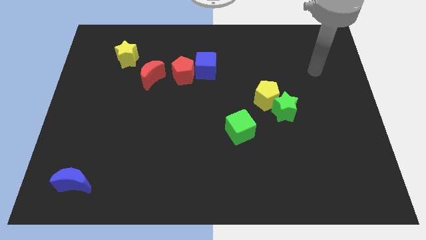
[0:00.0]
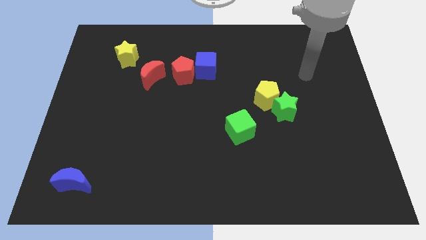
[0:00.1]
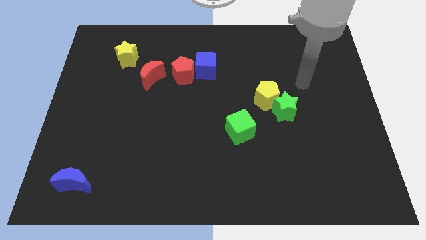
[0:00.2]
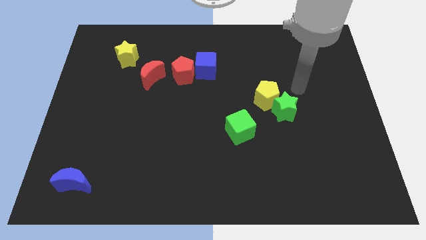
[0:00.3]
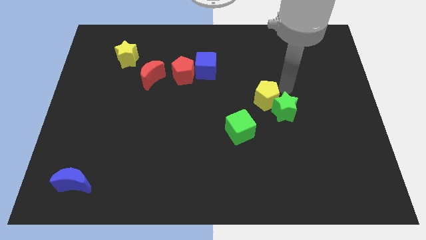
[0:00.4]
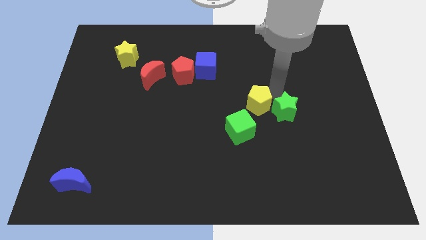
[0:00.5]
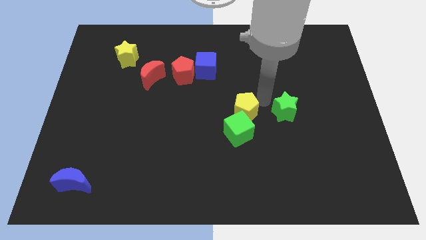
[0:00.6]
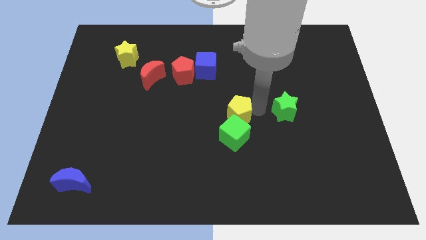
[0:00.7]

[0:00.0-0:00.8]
pull the green star apart from the yellow pentagon

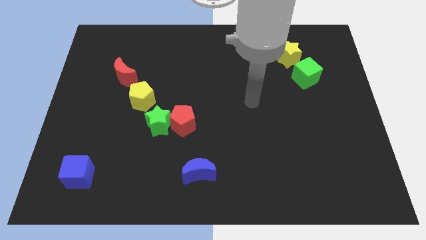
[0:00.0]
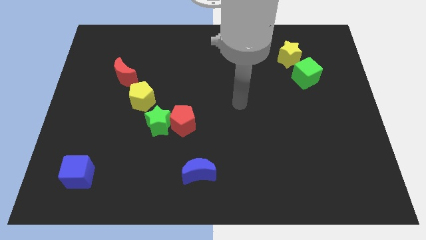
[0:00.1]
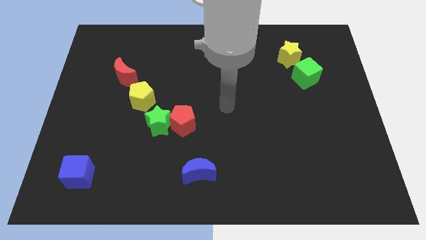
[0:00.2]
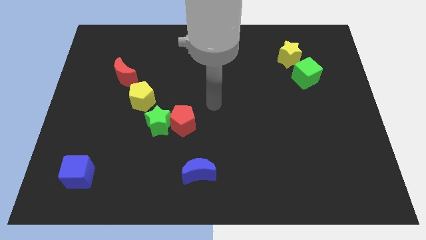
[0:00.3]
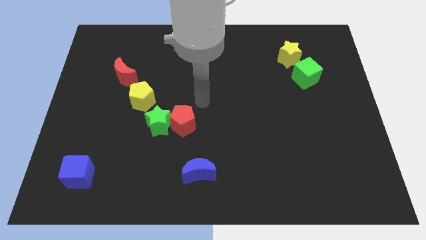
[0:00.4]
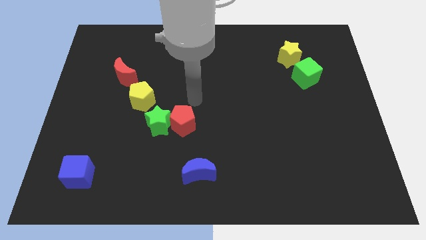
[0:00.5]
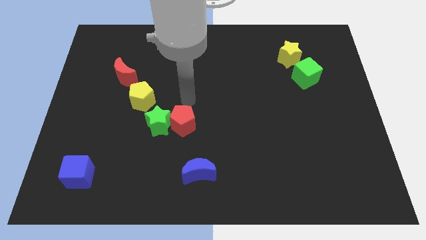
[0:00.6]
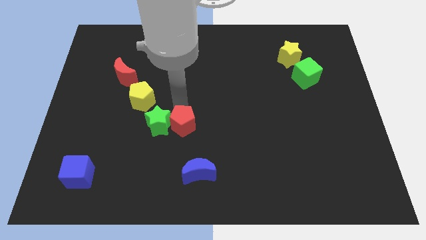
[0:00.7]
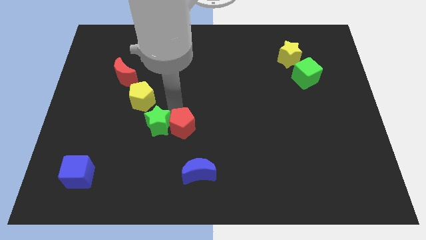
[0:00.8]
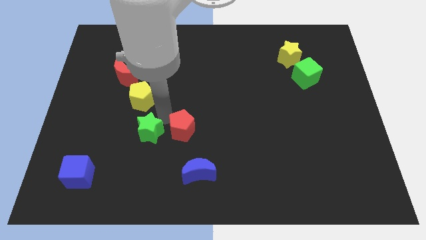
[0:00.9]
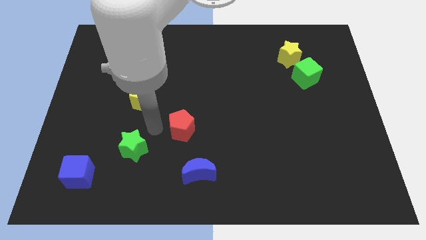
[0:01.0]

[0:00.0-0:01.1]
separate the red pentagon from the green star

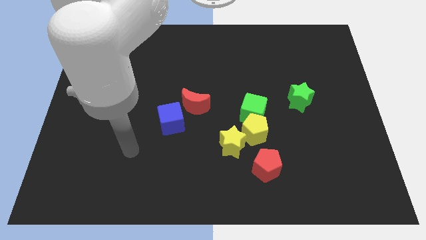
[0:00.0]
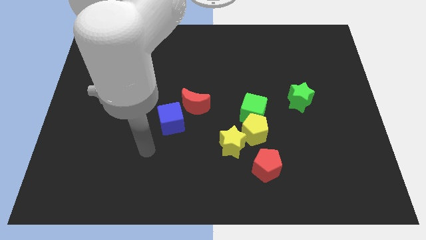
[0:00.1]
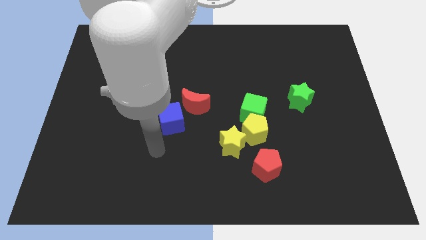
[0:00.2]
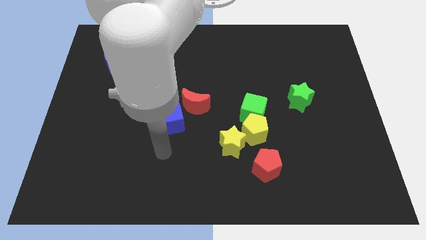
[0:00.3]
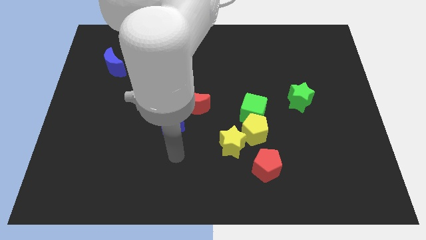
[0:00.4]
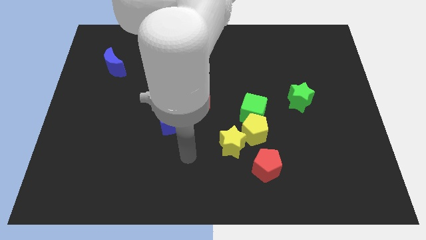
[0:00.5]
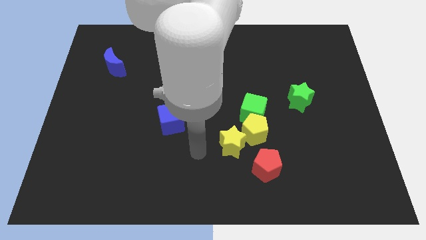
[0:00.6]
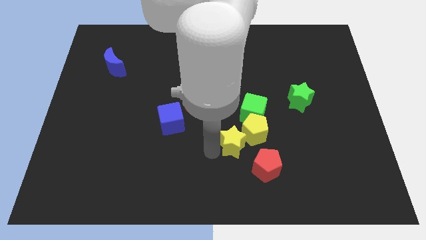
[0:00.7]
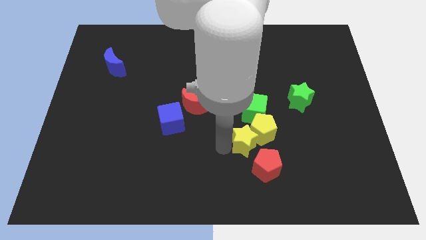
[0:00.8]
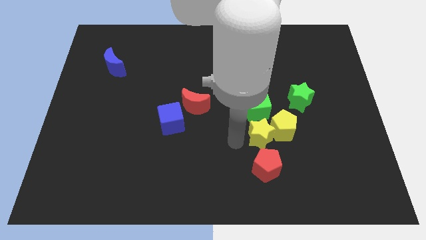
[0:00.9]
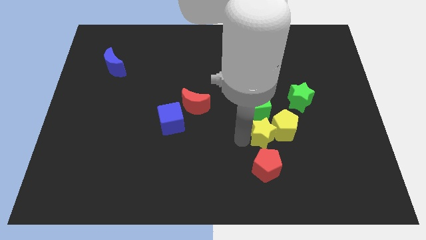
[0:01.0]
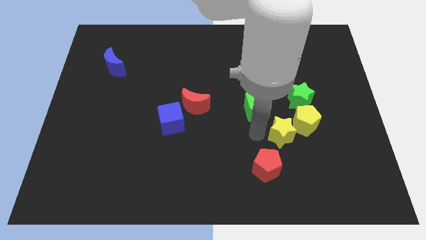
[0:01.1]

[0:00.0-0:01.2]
move the green cube away from the yellow pentagon

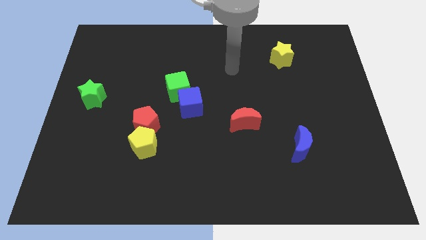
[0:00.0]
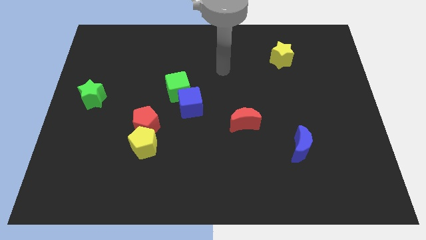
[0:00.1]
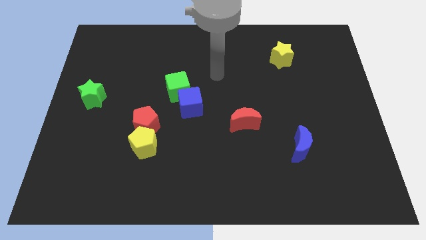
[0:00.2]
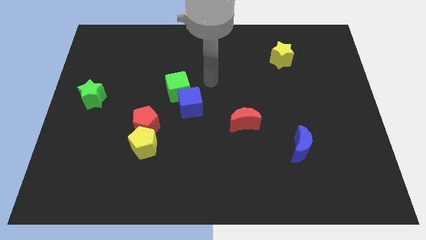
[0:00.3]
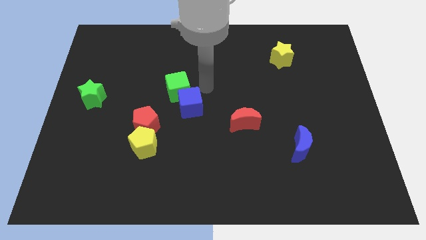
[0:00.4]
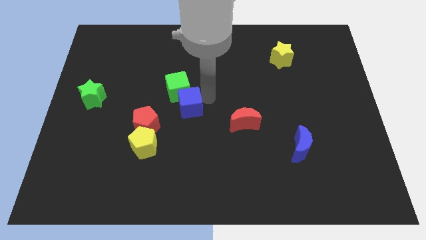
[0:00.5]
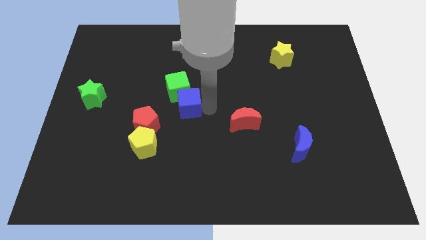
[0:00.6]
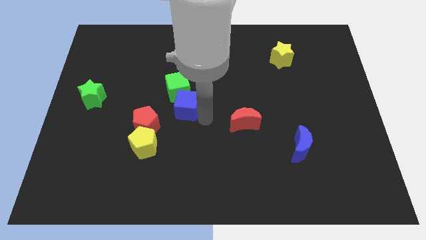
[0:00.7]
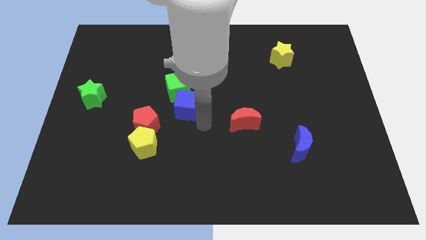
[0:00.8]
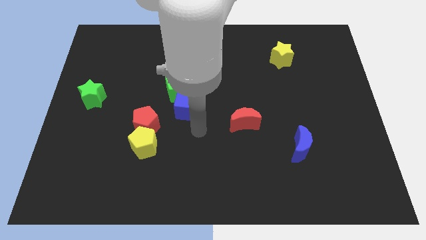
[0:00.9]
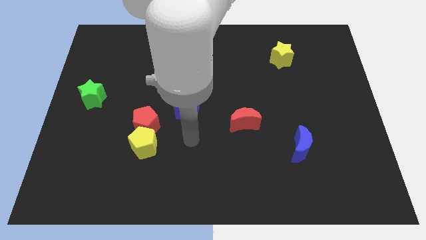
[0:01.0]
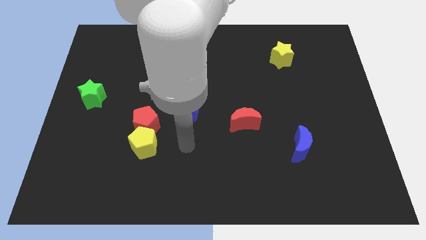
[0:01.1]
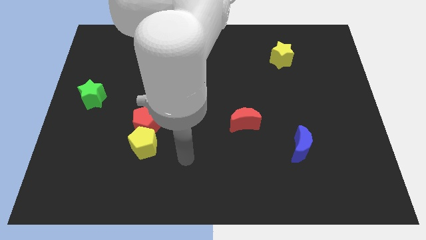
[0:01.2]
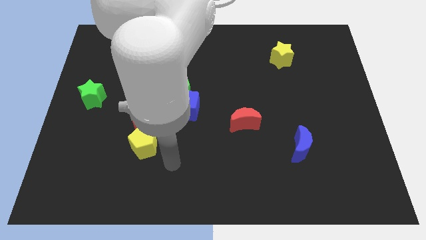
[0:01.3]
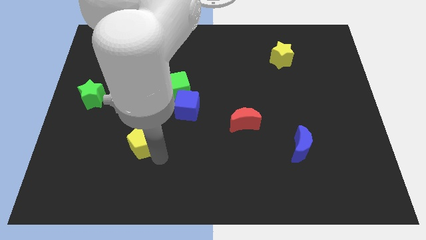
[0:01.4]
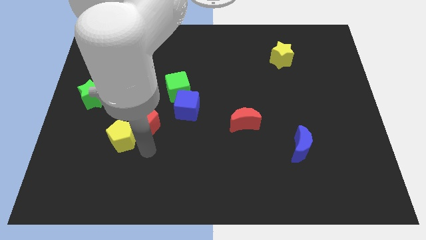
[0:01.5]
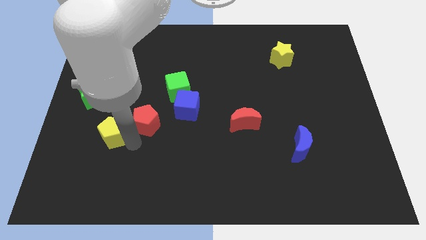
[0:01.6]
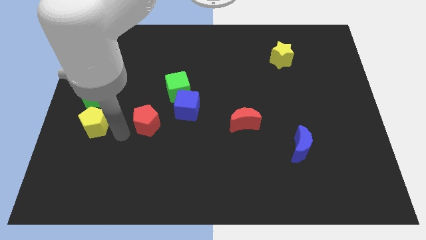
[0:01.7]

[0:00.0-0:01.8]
move the red pentagon away from the yellow pentagon

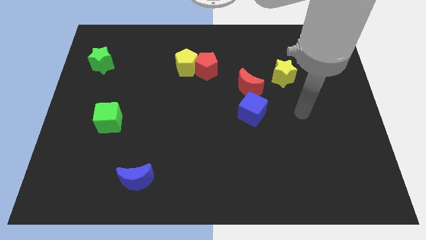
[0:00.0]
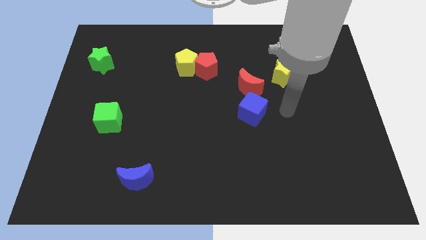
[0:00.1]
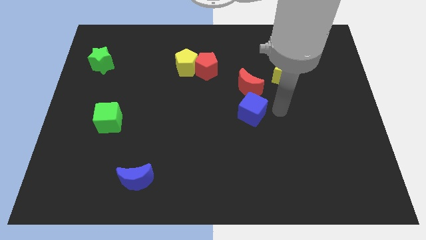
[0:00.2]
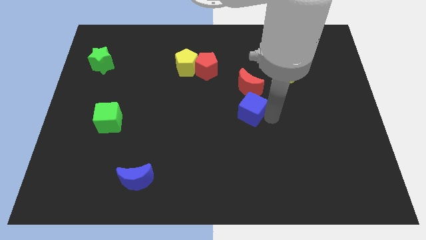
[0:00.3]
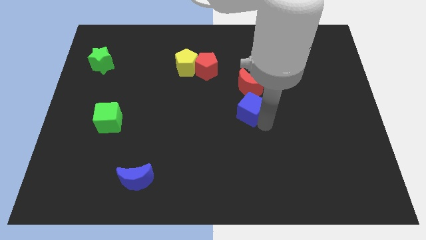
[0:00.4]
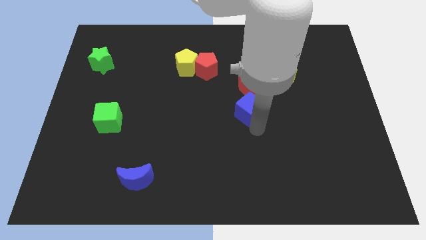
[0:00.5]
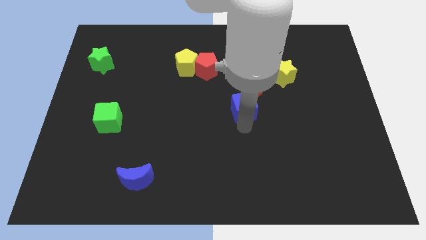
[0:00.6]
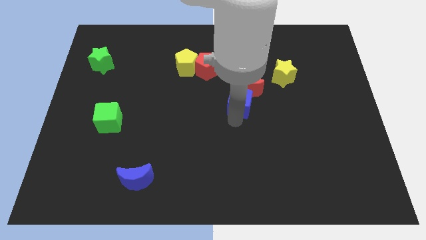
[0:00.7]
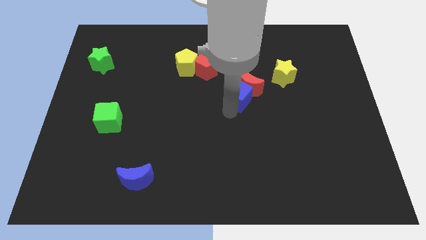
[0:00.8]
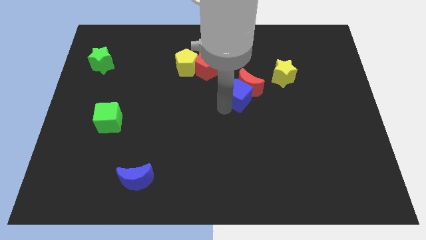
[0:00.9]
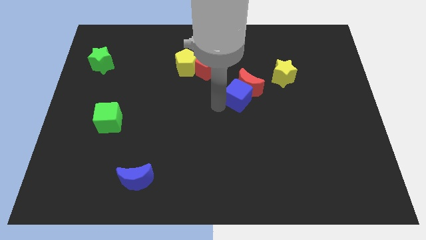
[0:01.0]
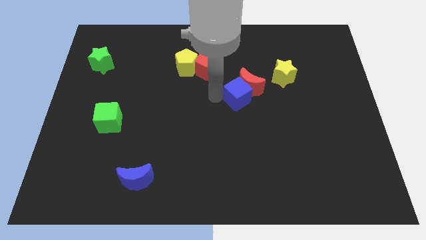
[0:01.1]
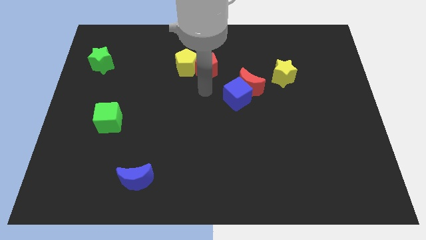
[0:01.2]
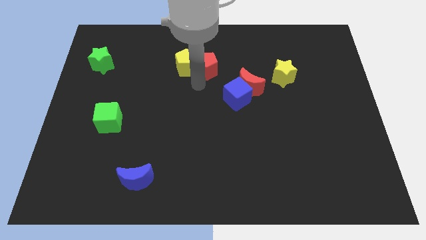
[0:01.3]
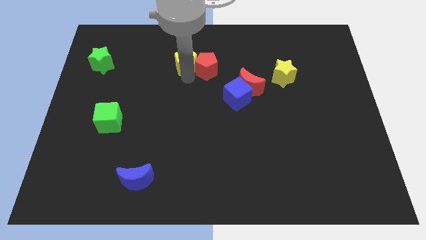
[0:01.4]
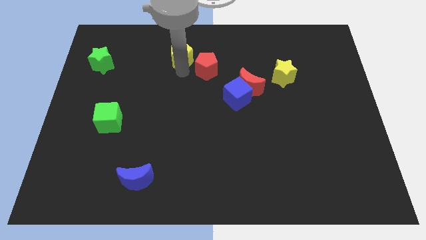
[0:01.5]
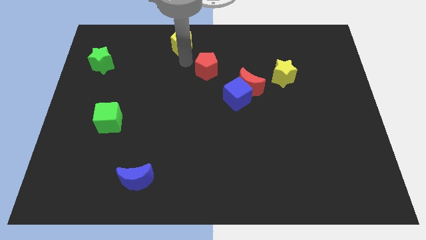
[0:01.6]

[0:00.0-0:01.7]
separate the red pentagon from the yellow pentagon

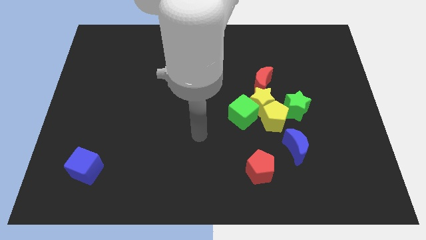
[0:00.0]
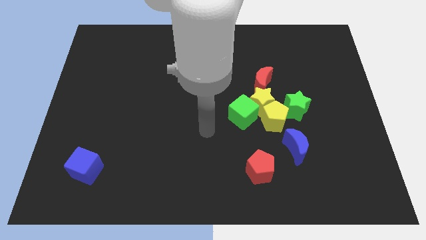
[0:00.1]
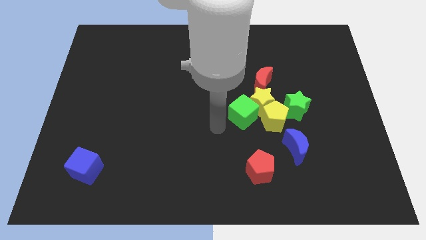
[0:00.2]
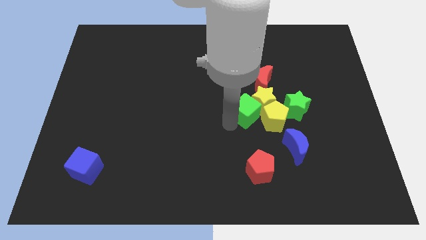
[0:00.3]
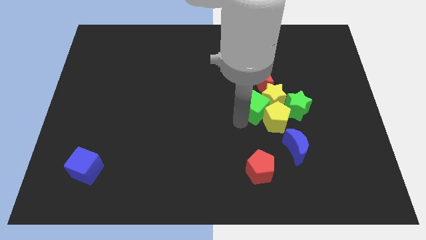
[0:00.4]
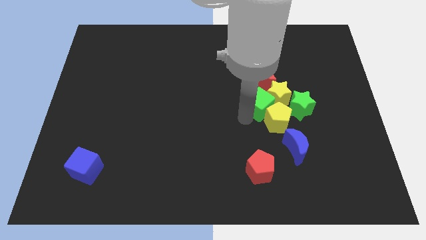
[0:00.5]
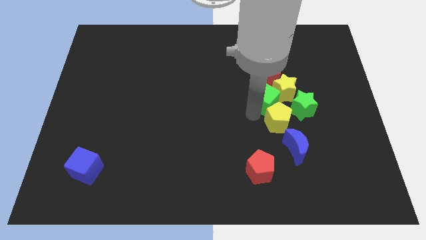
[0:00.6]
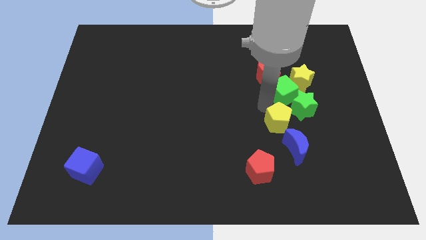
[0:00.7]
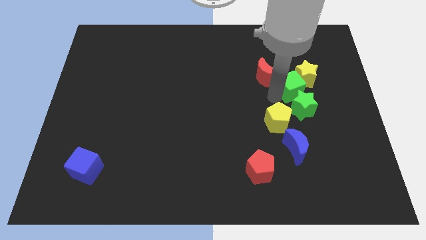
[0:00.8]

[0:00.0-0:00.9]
pull the red moon apart from the yellow star

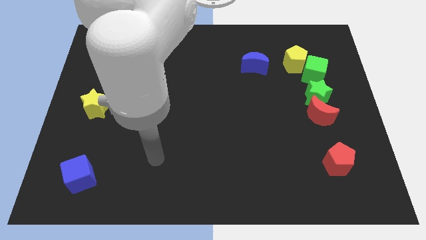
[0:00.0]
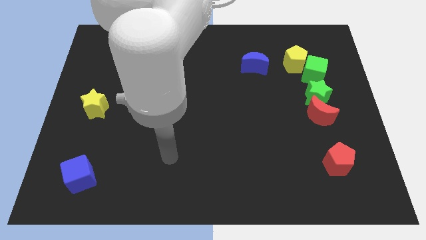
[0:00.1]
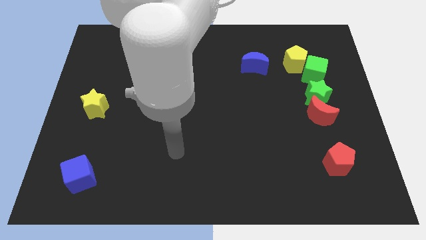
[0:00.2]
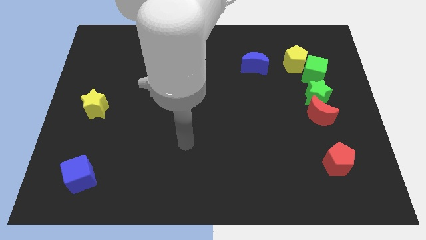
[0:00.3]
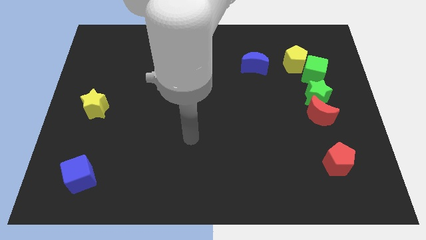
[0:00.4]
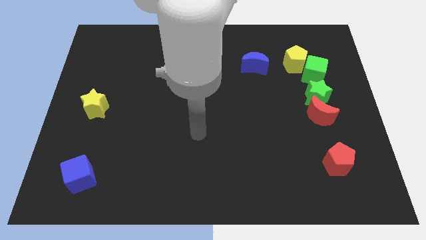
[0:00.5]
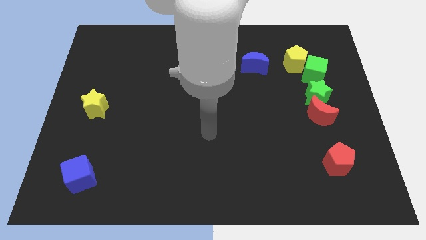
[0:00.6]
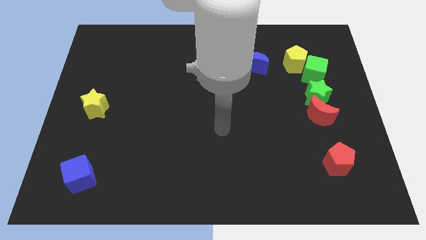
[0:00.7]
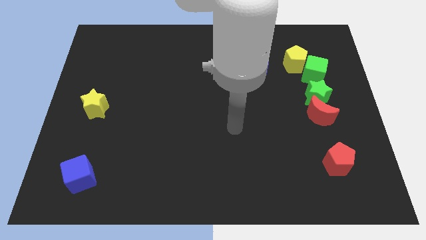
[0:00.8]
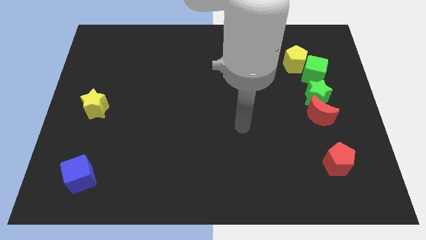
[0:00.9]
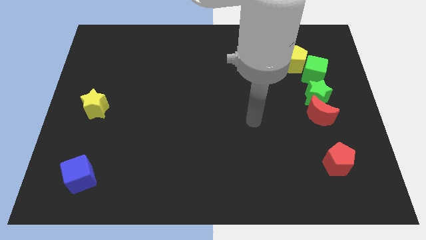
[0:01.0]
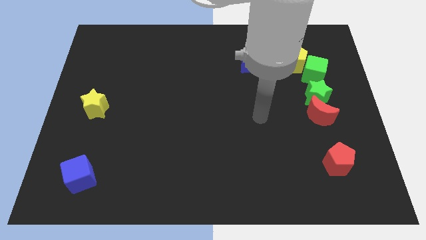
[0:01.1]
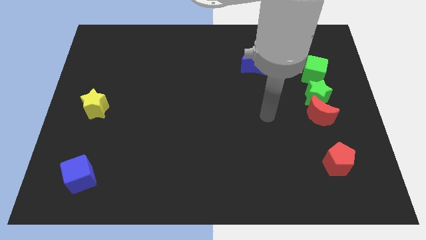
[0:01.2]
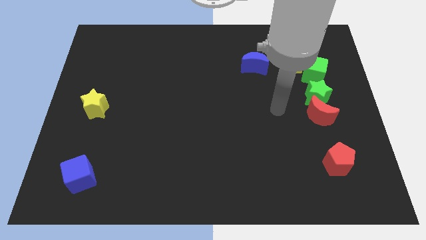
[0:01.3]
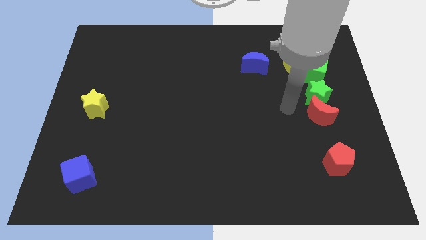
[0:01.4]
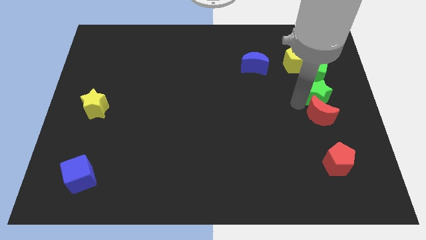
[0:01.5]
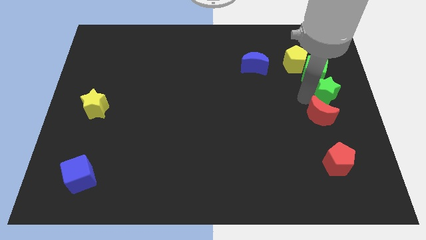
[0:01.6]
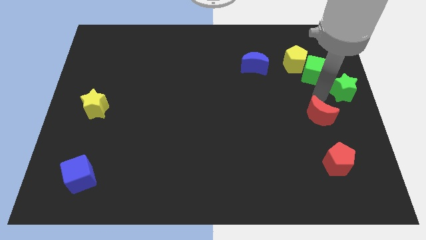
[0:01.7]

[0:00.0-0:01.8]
pull the red moon apart from the green star
